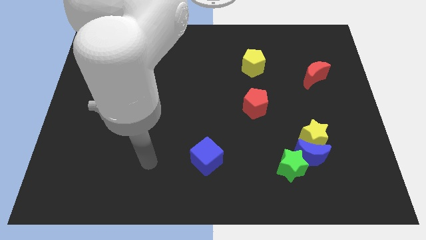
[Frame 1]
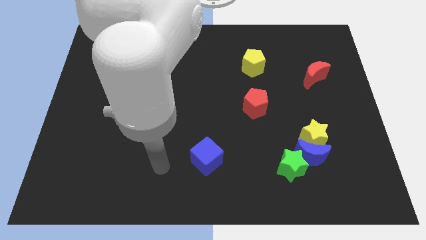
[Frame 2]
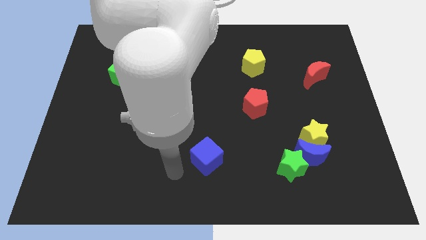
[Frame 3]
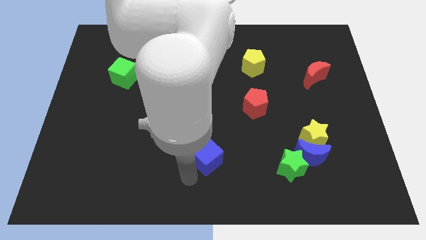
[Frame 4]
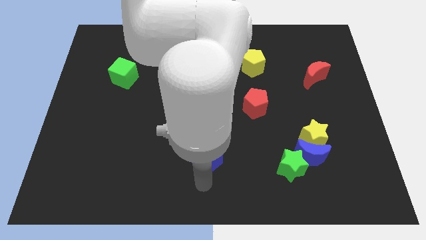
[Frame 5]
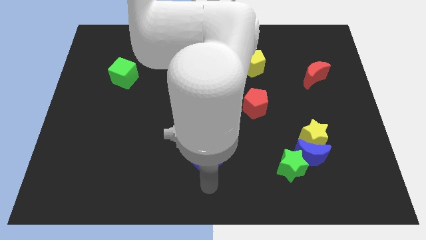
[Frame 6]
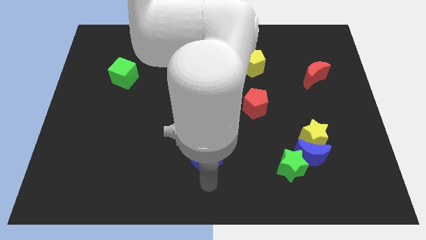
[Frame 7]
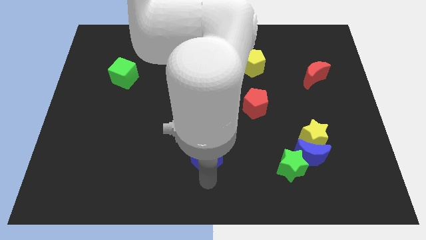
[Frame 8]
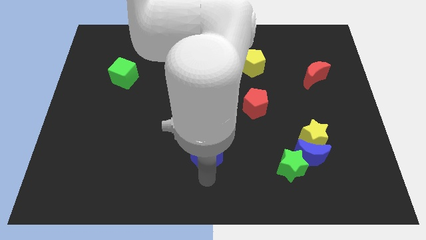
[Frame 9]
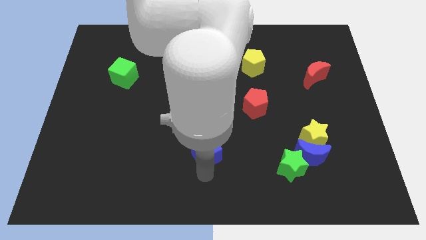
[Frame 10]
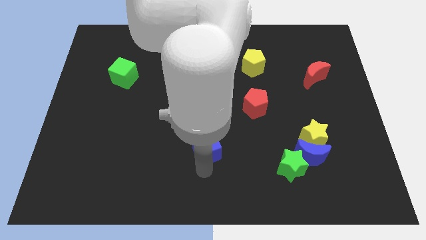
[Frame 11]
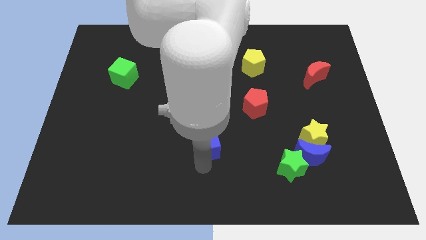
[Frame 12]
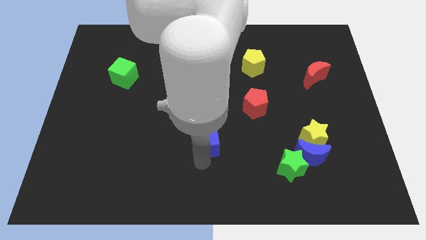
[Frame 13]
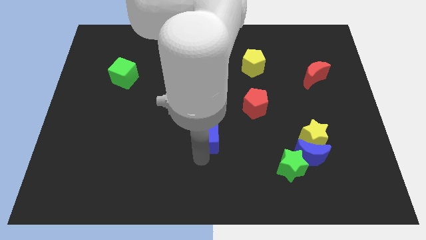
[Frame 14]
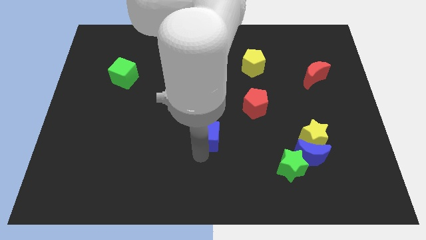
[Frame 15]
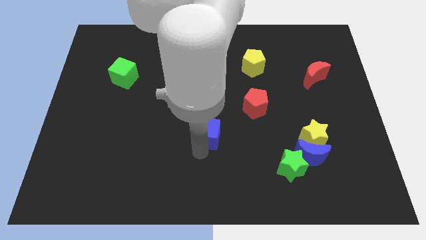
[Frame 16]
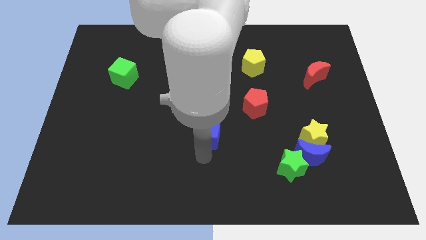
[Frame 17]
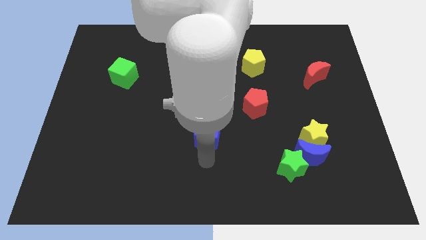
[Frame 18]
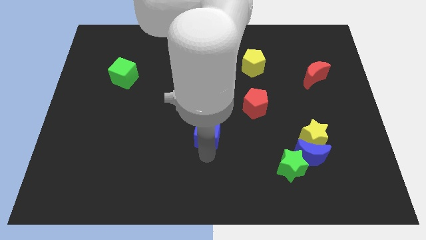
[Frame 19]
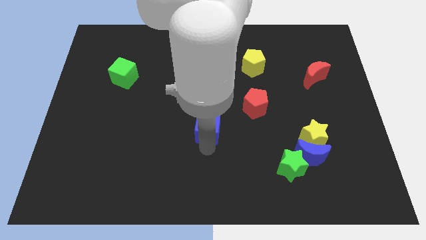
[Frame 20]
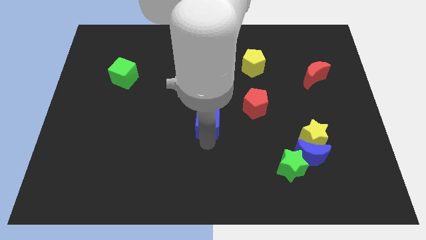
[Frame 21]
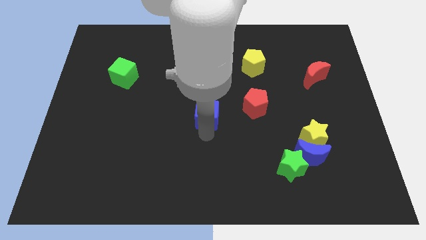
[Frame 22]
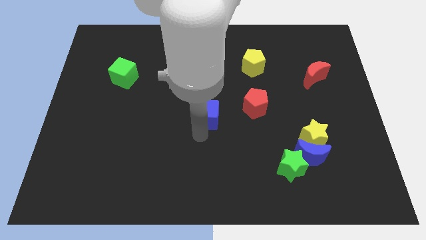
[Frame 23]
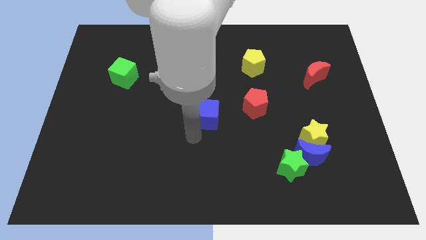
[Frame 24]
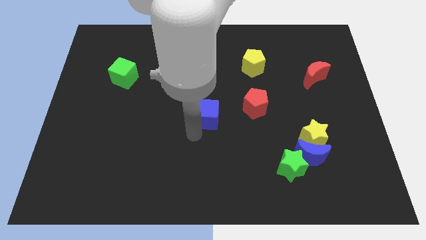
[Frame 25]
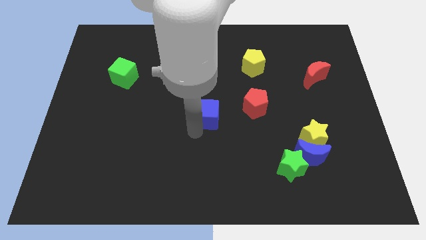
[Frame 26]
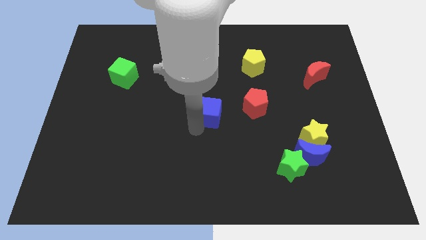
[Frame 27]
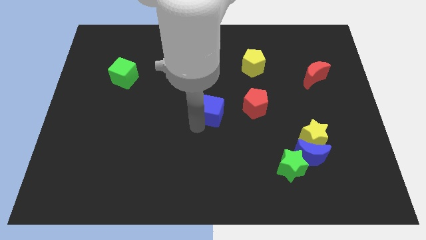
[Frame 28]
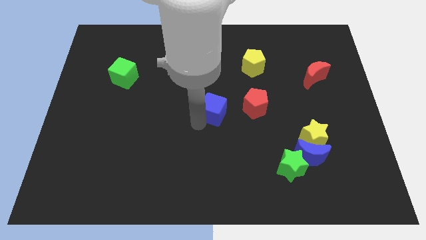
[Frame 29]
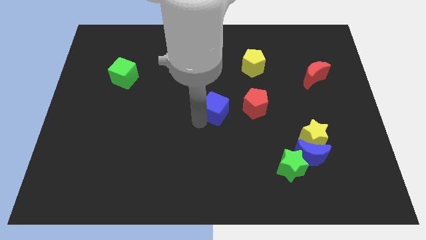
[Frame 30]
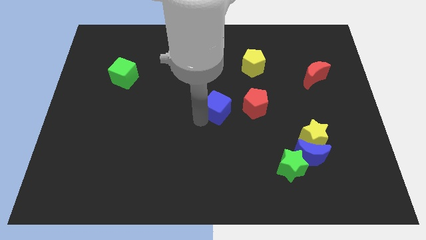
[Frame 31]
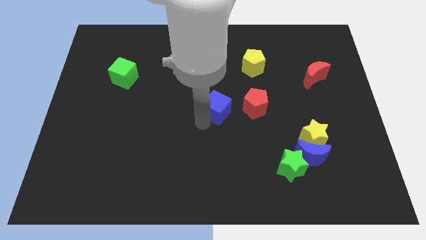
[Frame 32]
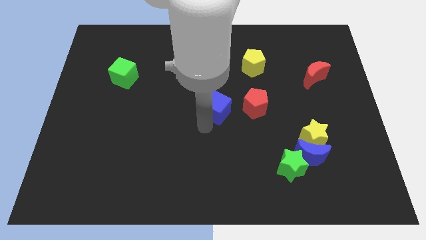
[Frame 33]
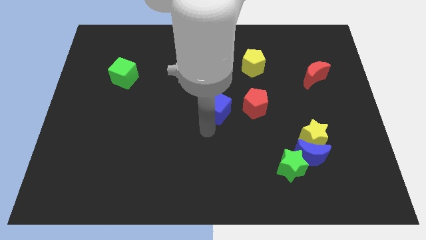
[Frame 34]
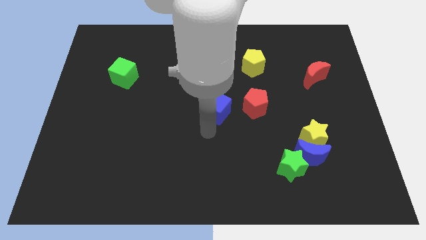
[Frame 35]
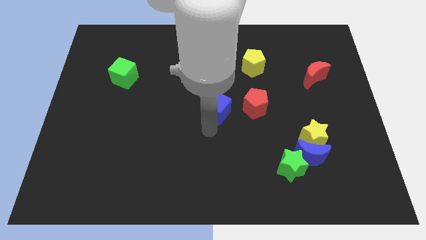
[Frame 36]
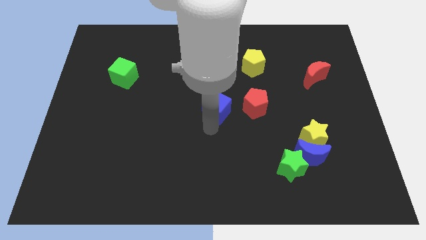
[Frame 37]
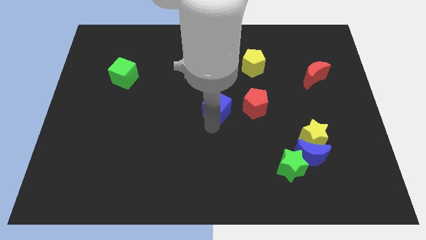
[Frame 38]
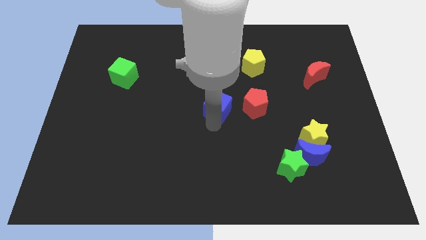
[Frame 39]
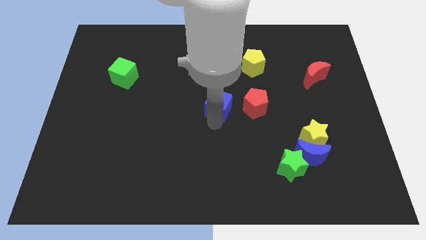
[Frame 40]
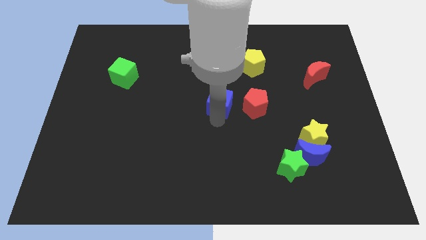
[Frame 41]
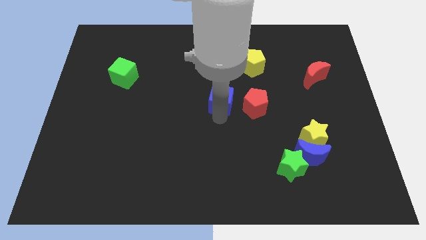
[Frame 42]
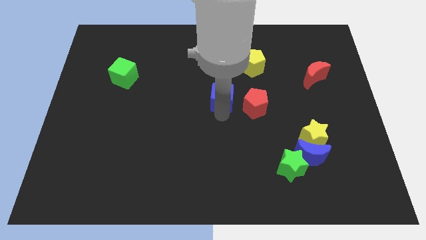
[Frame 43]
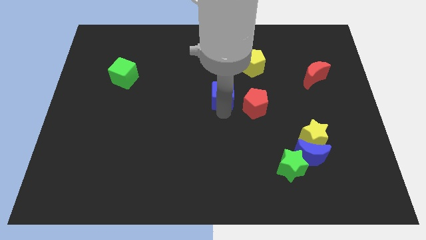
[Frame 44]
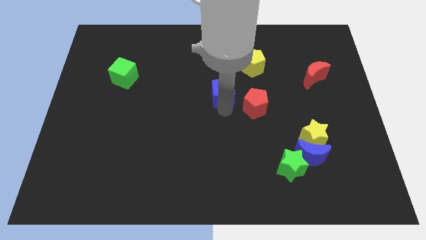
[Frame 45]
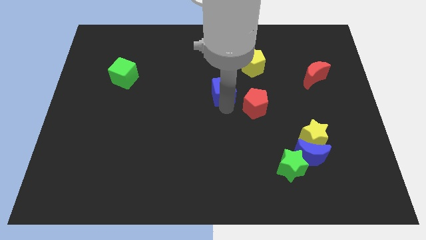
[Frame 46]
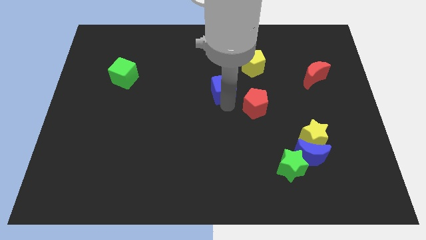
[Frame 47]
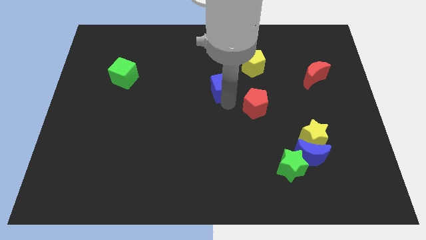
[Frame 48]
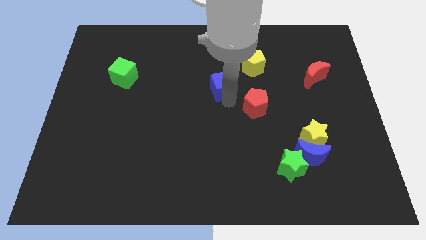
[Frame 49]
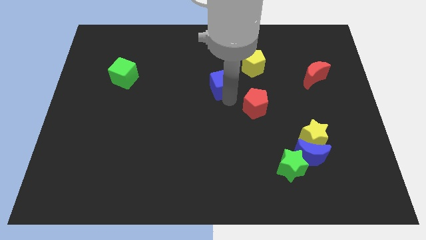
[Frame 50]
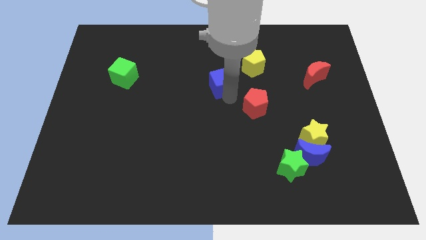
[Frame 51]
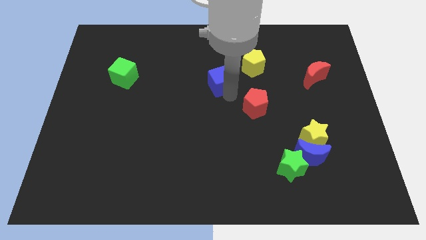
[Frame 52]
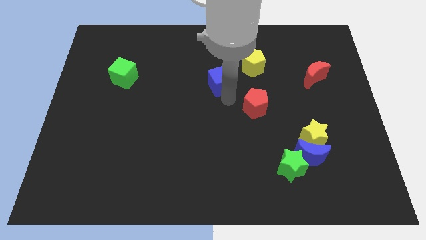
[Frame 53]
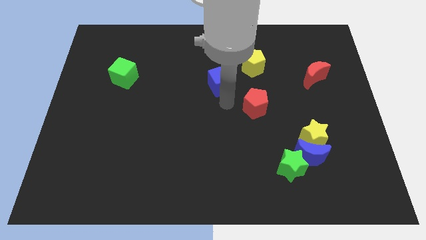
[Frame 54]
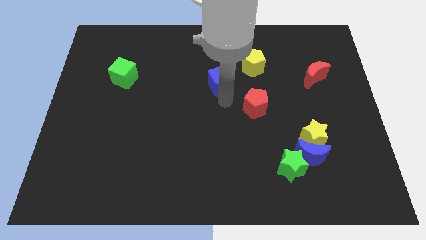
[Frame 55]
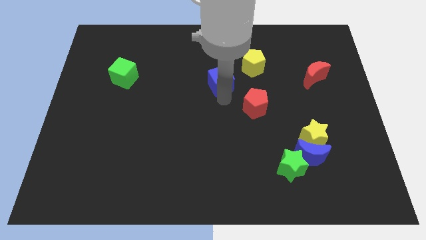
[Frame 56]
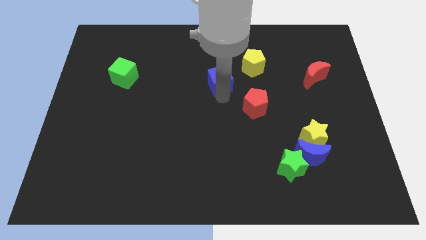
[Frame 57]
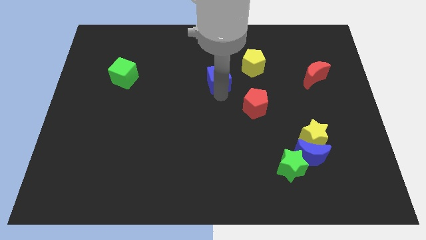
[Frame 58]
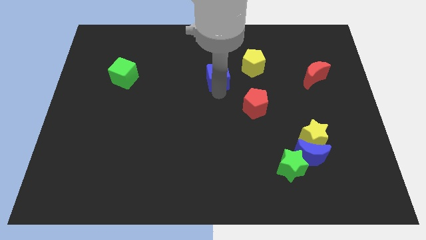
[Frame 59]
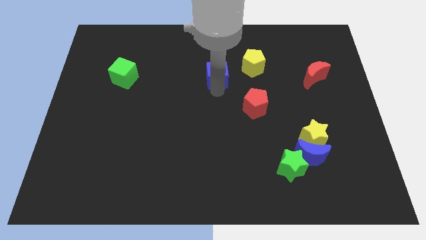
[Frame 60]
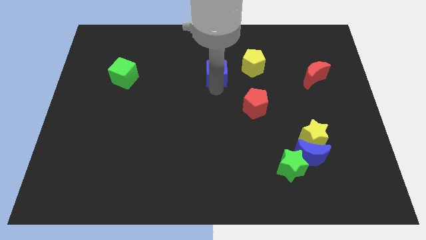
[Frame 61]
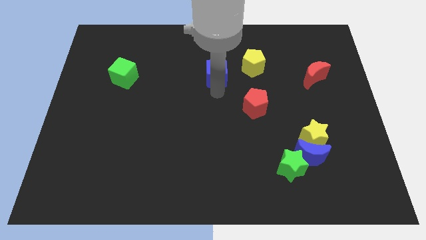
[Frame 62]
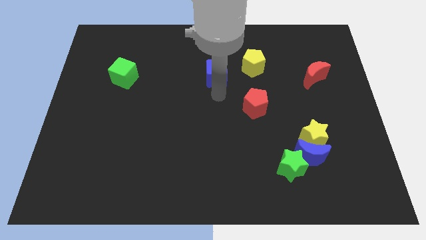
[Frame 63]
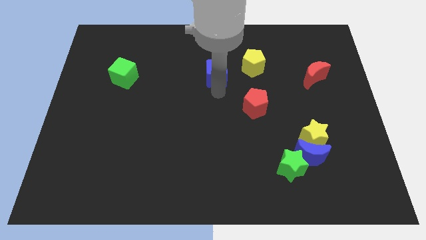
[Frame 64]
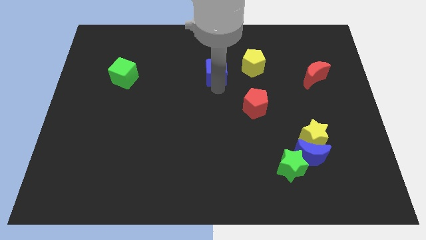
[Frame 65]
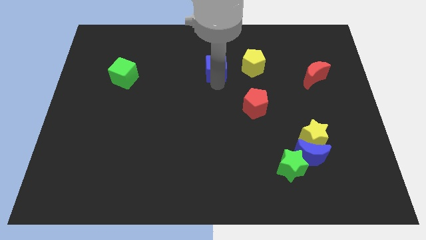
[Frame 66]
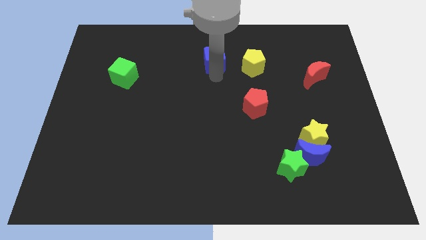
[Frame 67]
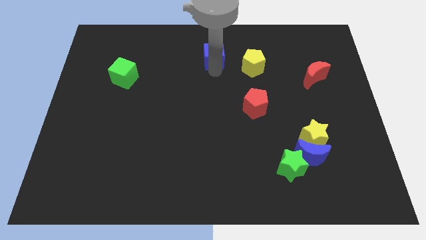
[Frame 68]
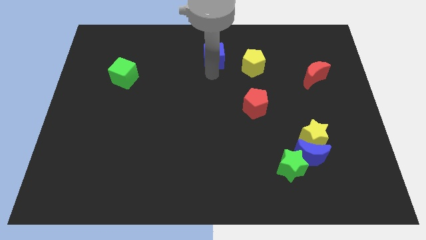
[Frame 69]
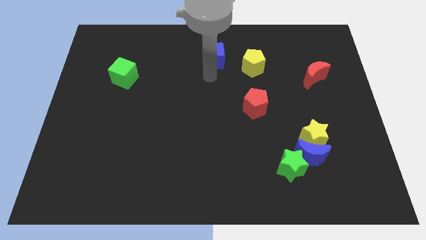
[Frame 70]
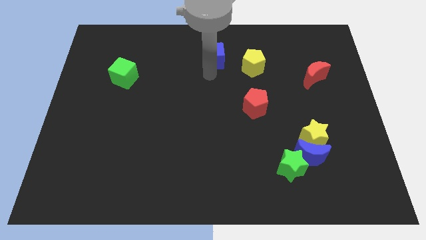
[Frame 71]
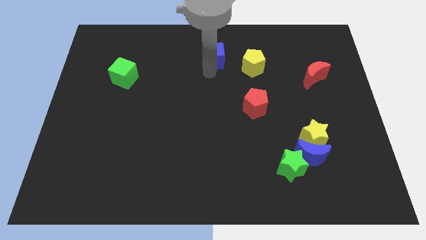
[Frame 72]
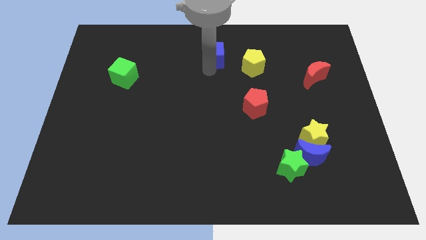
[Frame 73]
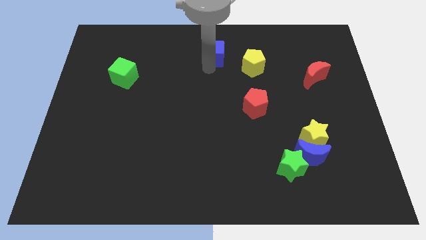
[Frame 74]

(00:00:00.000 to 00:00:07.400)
slide the blue cube to the top side

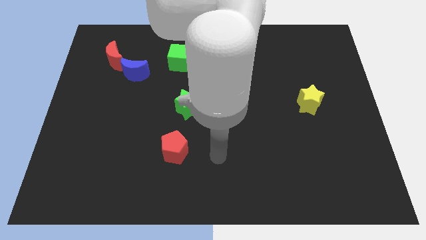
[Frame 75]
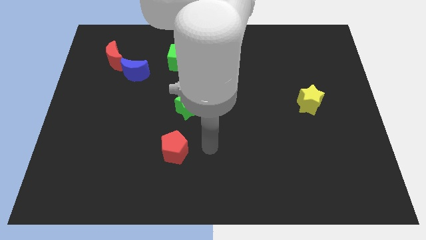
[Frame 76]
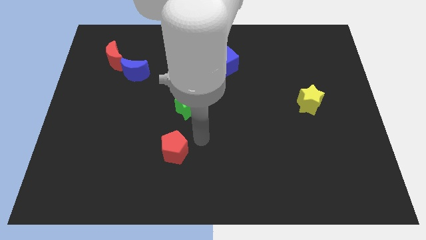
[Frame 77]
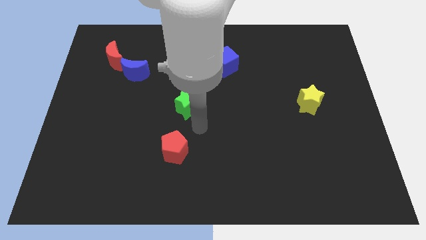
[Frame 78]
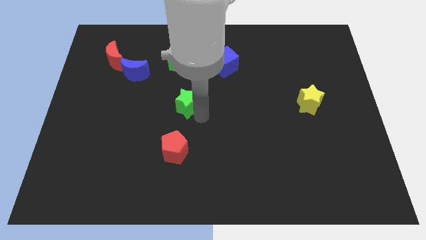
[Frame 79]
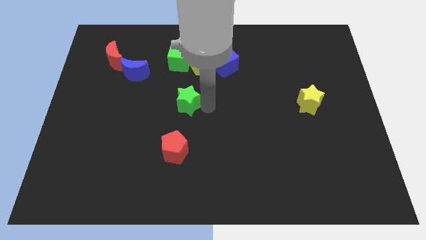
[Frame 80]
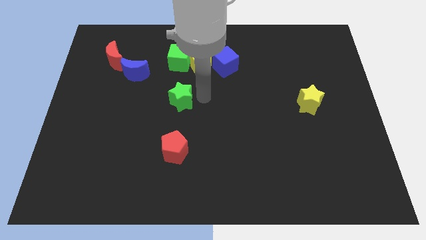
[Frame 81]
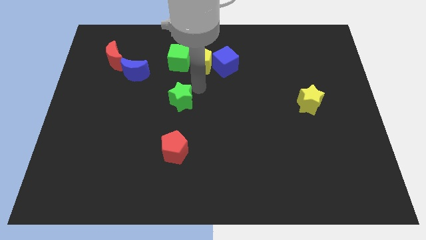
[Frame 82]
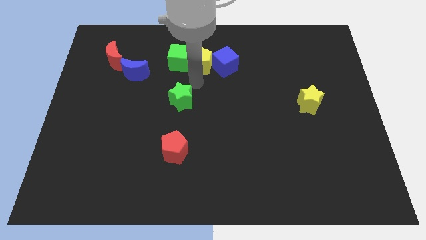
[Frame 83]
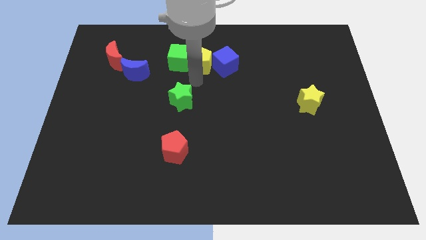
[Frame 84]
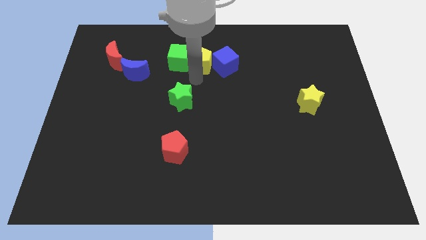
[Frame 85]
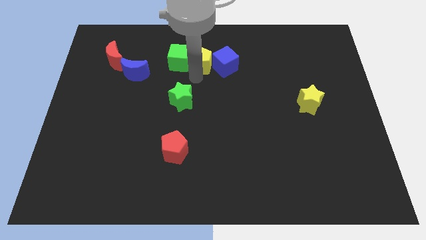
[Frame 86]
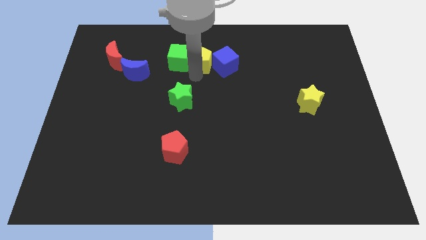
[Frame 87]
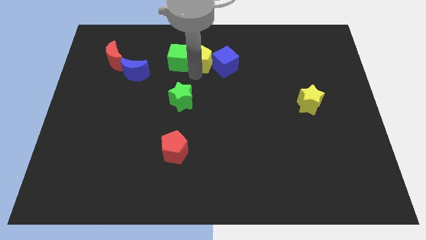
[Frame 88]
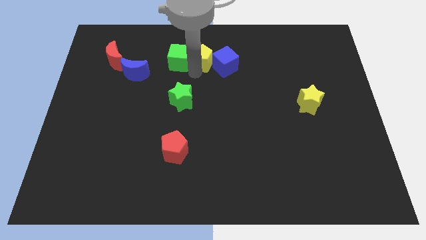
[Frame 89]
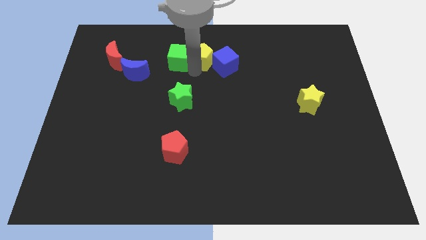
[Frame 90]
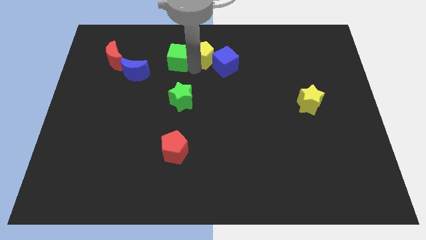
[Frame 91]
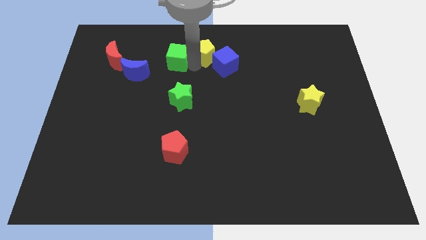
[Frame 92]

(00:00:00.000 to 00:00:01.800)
push the yellow pentagon to the top side
